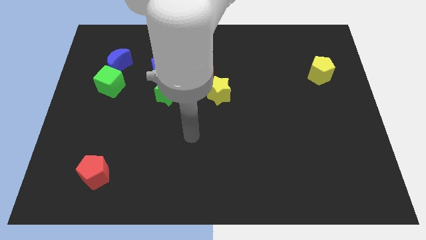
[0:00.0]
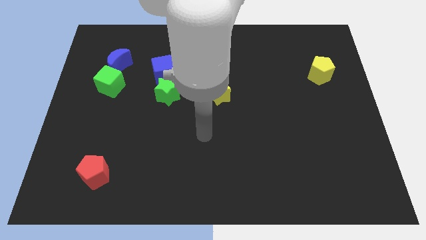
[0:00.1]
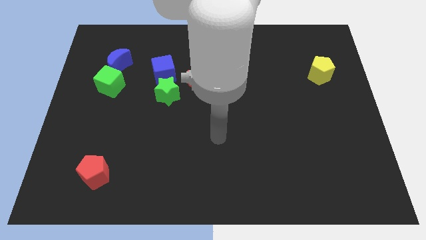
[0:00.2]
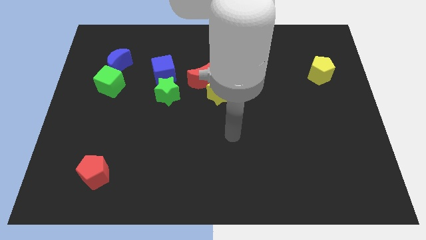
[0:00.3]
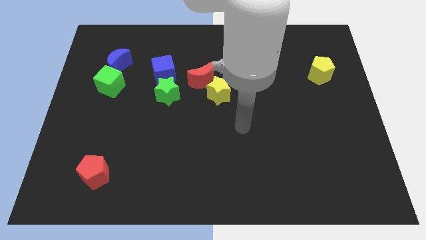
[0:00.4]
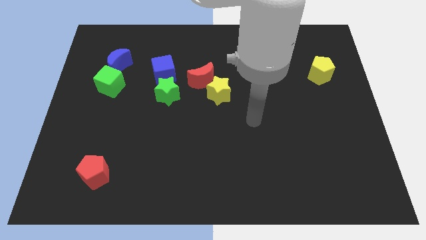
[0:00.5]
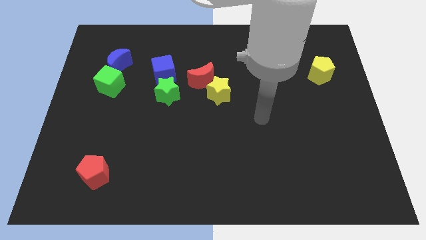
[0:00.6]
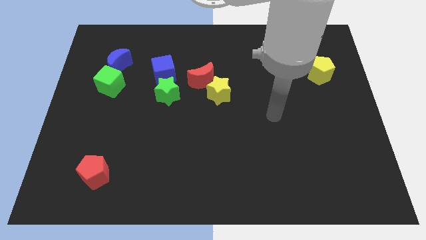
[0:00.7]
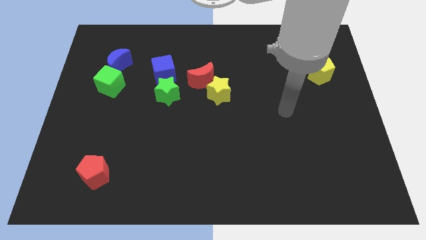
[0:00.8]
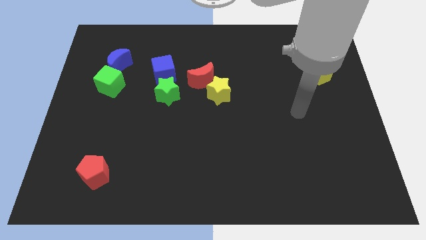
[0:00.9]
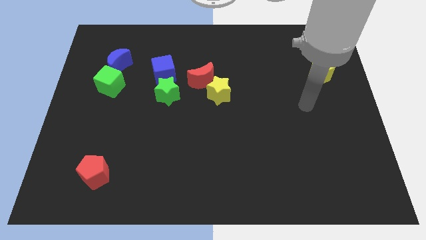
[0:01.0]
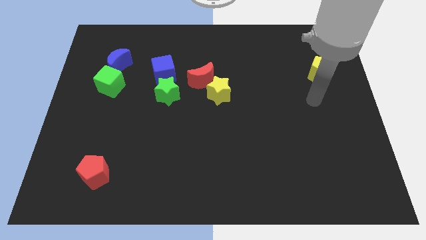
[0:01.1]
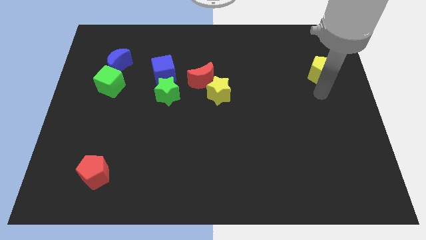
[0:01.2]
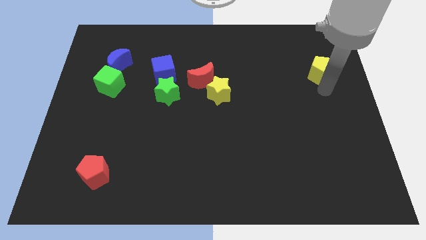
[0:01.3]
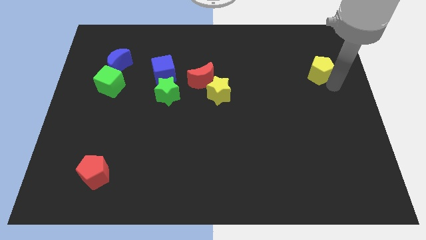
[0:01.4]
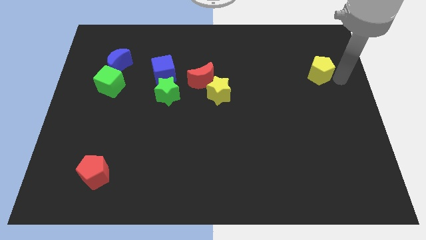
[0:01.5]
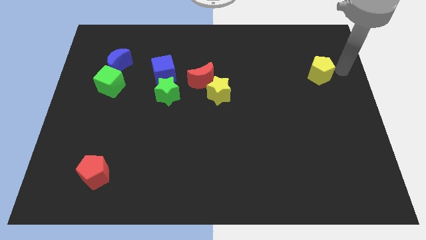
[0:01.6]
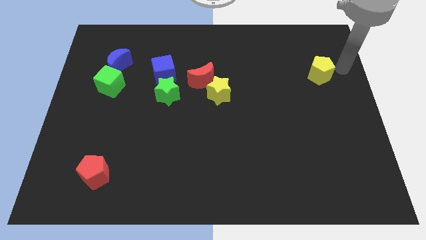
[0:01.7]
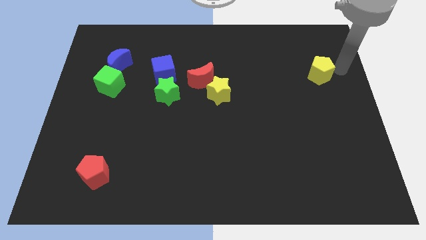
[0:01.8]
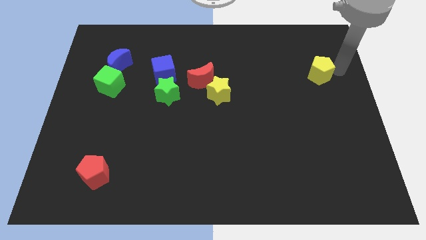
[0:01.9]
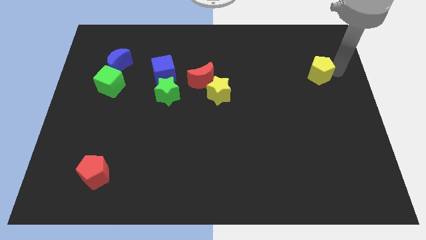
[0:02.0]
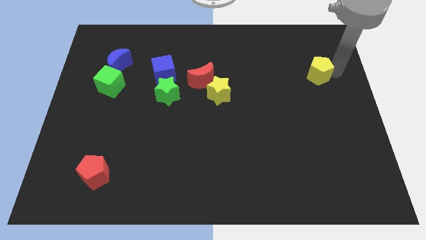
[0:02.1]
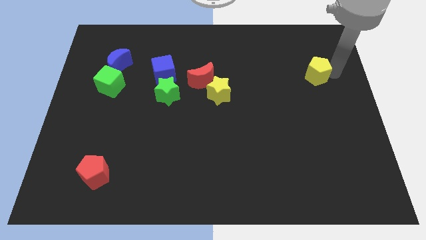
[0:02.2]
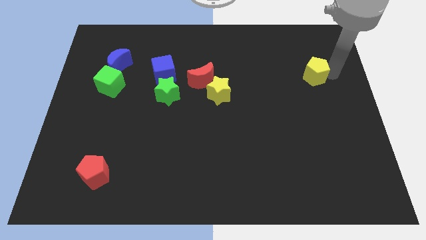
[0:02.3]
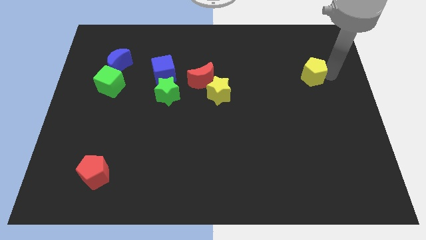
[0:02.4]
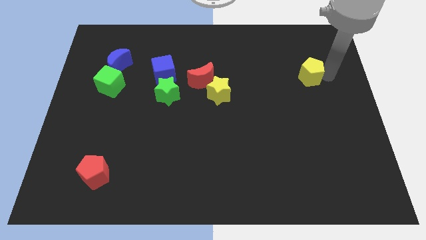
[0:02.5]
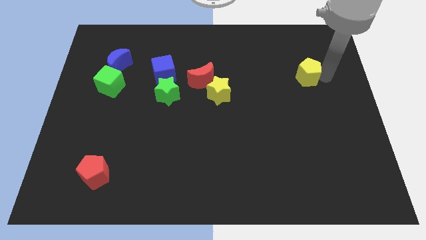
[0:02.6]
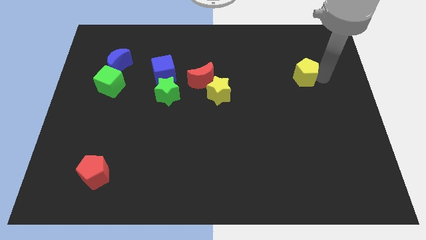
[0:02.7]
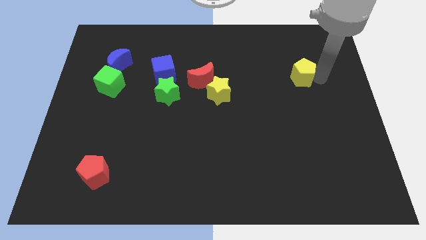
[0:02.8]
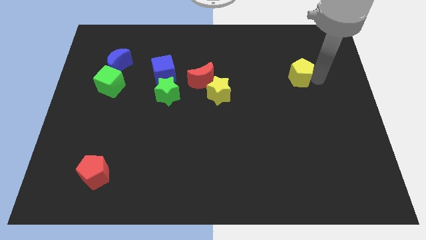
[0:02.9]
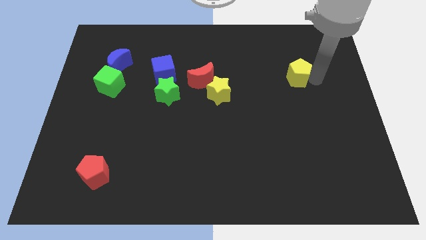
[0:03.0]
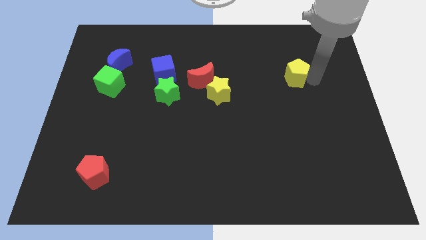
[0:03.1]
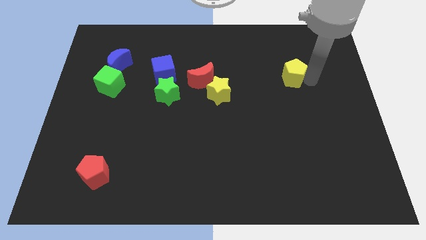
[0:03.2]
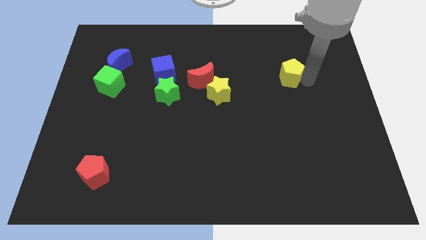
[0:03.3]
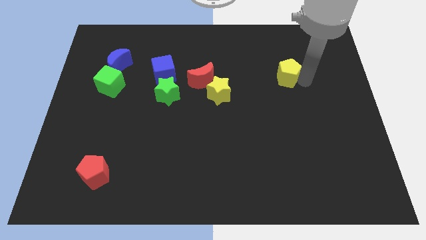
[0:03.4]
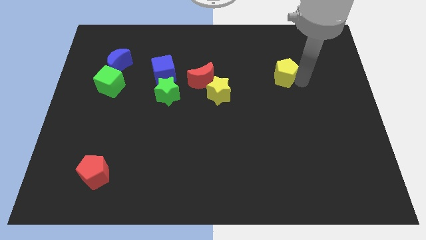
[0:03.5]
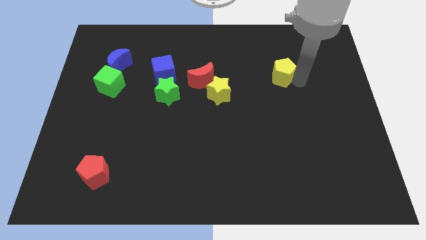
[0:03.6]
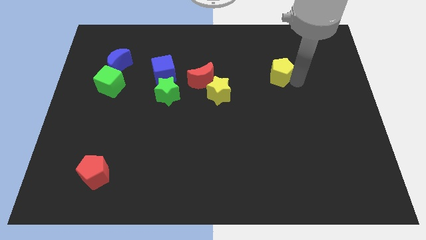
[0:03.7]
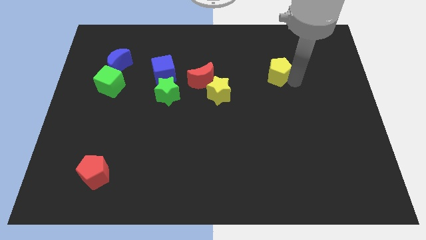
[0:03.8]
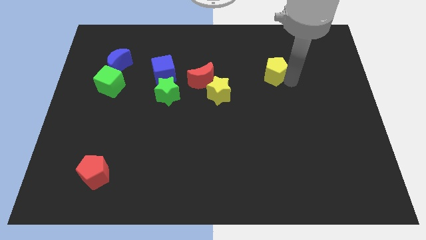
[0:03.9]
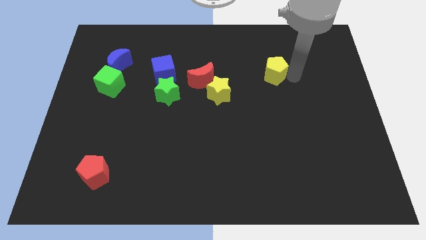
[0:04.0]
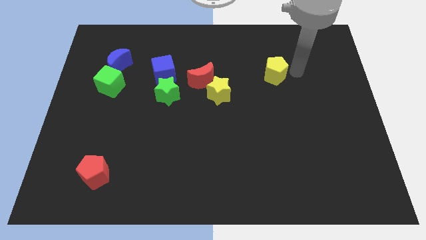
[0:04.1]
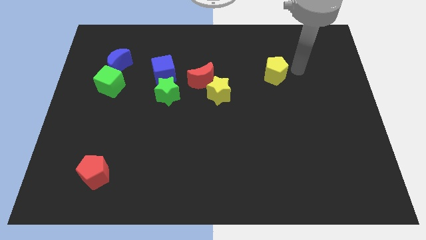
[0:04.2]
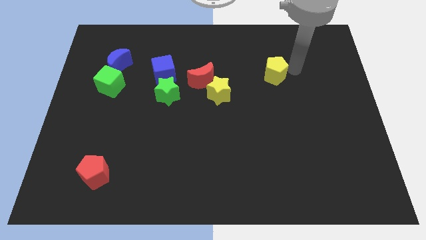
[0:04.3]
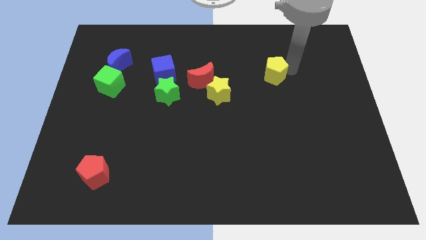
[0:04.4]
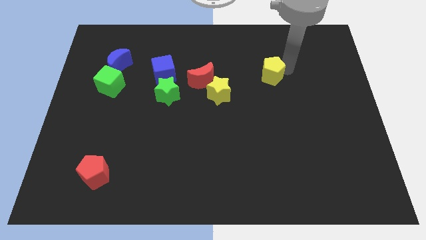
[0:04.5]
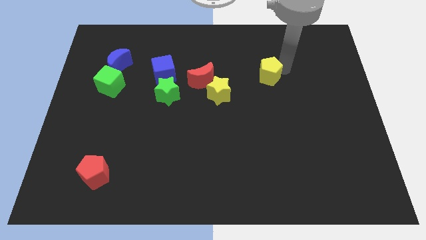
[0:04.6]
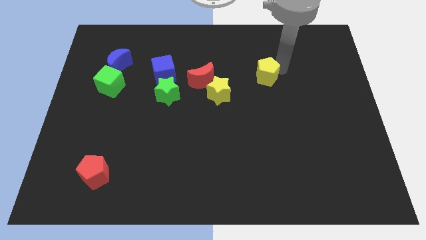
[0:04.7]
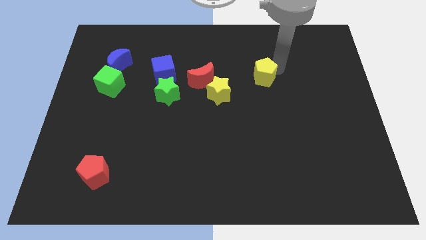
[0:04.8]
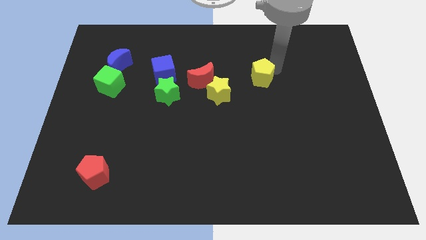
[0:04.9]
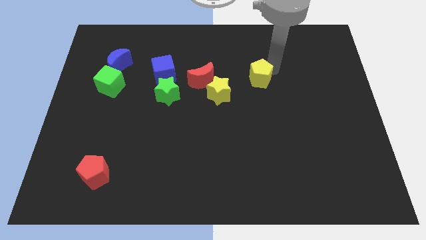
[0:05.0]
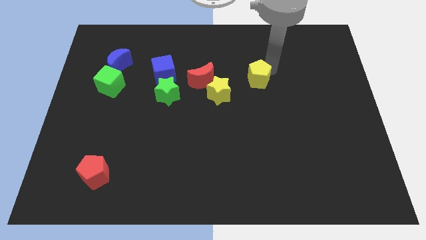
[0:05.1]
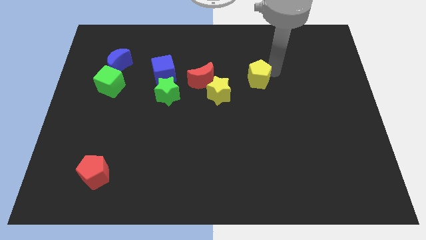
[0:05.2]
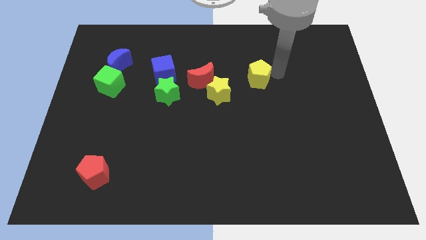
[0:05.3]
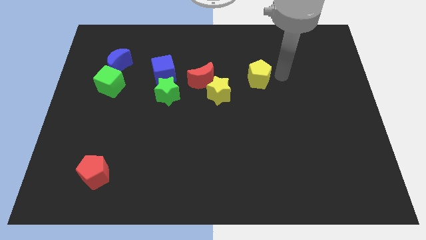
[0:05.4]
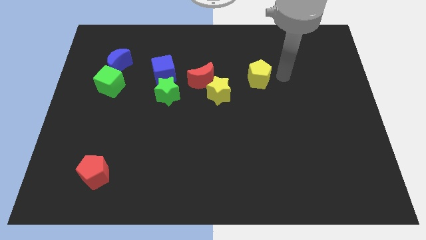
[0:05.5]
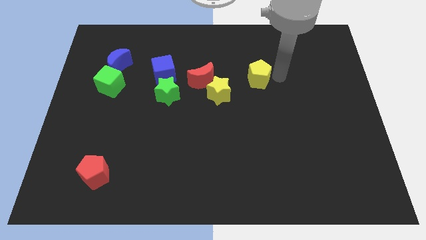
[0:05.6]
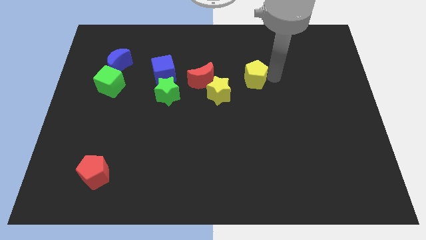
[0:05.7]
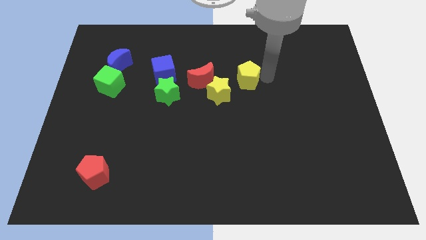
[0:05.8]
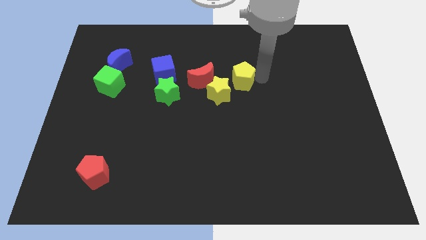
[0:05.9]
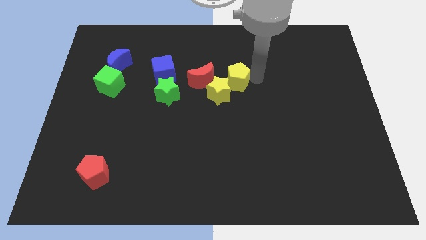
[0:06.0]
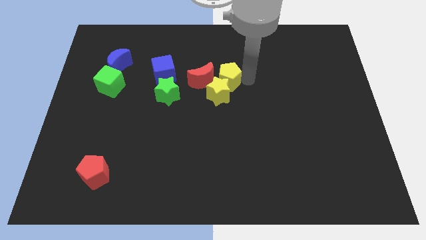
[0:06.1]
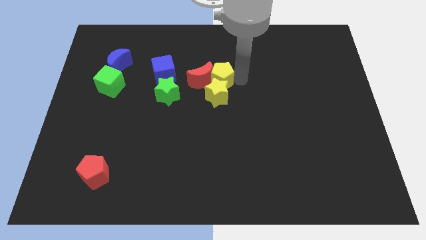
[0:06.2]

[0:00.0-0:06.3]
slide the yellow pentagon to the red moon

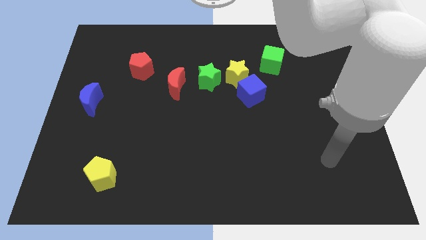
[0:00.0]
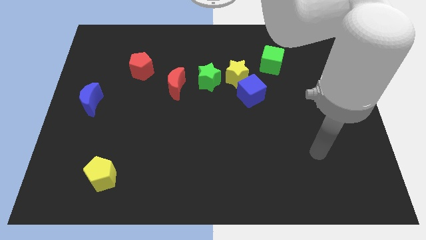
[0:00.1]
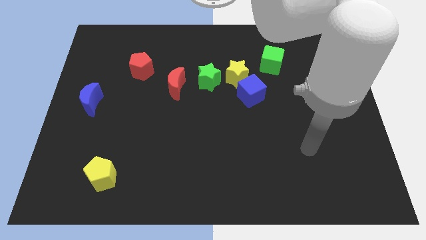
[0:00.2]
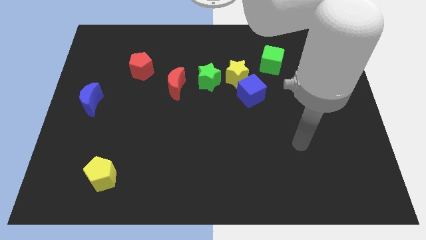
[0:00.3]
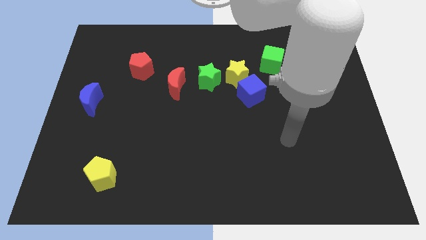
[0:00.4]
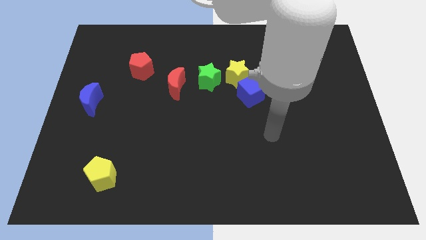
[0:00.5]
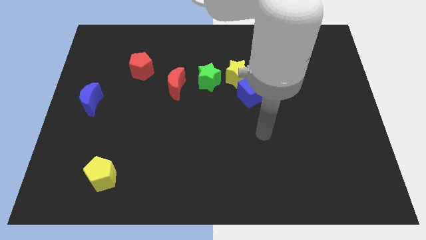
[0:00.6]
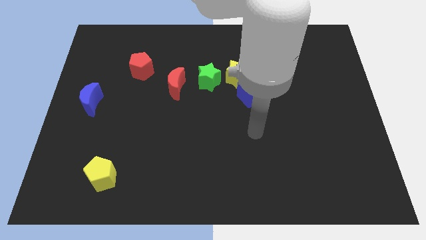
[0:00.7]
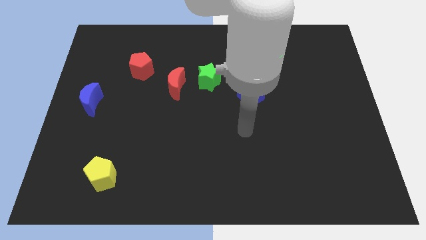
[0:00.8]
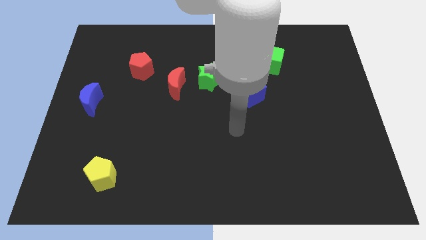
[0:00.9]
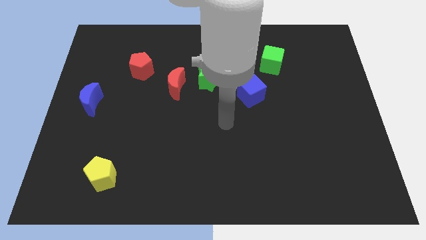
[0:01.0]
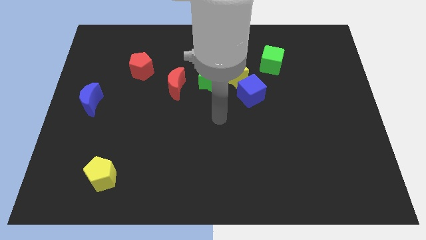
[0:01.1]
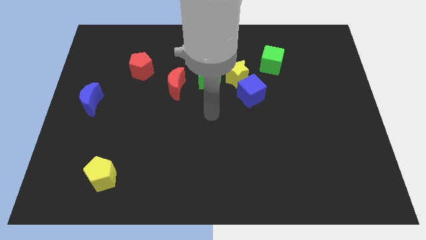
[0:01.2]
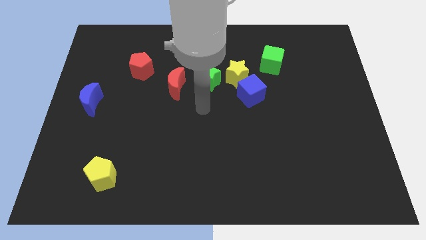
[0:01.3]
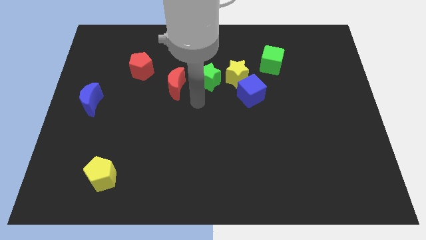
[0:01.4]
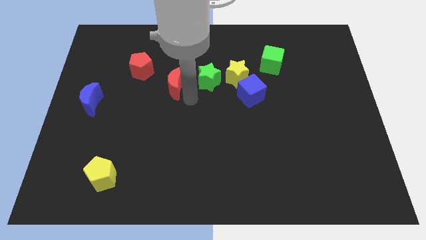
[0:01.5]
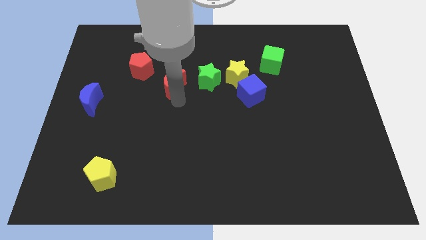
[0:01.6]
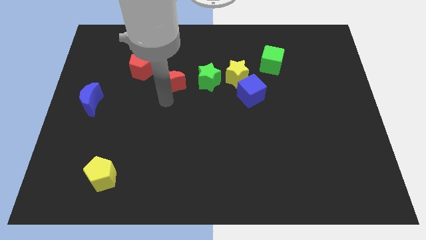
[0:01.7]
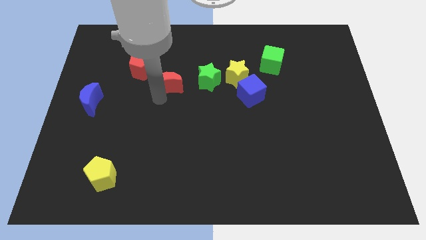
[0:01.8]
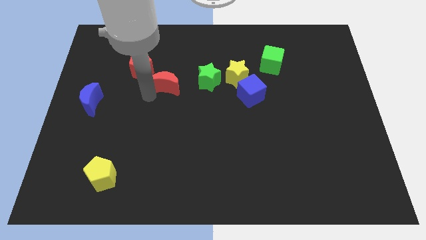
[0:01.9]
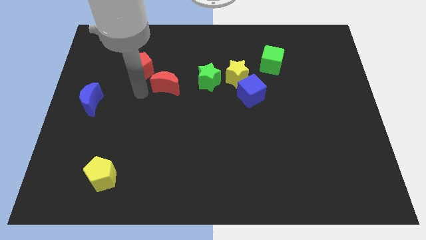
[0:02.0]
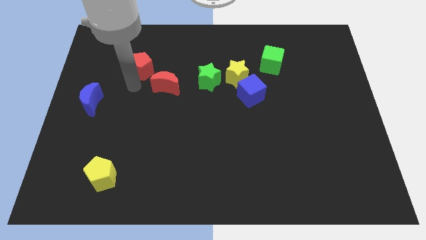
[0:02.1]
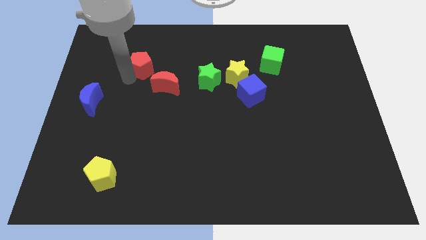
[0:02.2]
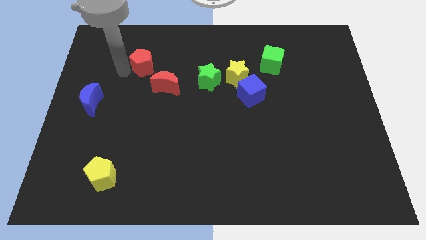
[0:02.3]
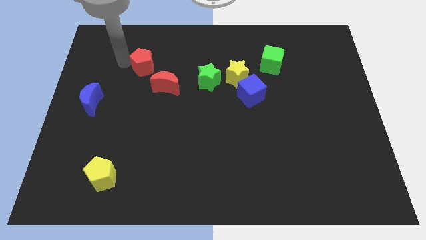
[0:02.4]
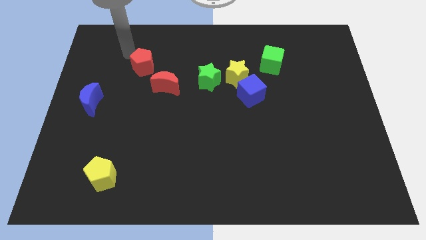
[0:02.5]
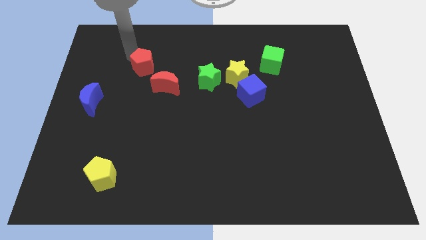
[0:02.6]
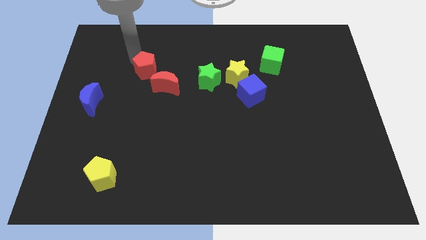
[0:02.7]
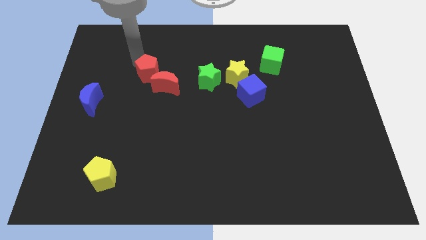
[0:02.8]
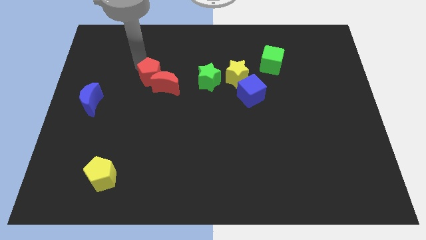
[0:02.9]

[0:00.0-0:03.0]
put the red pentagon towards the red moon
